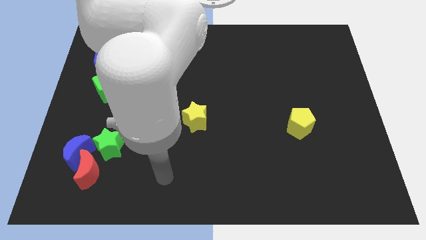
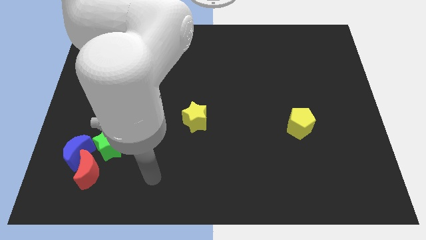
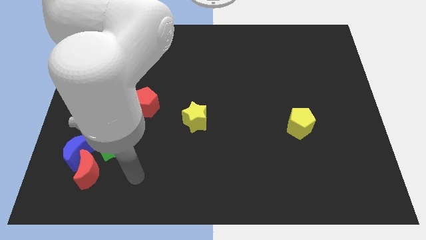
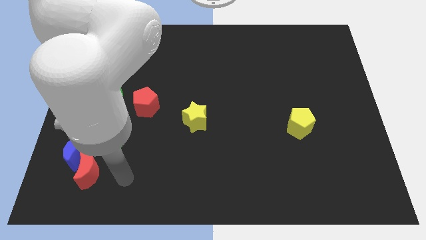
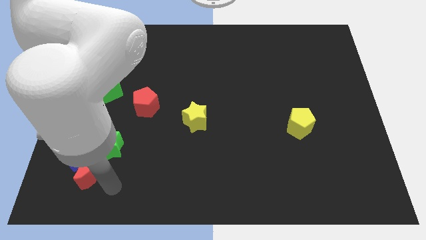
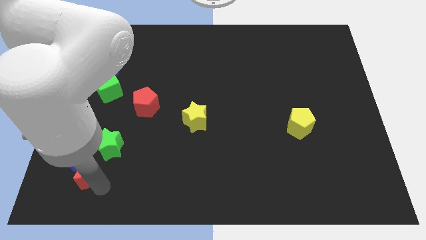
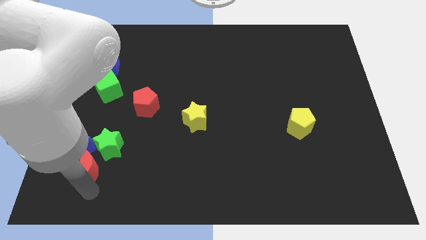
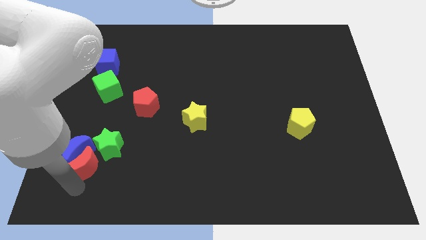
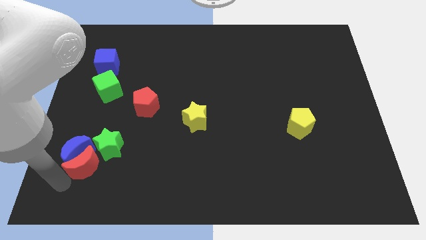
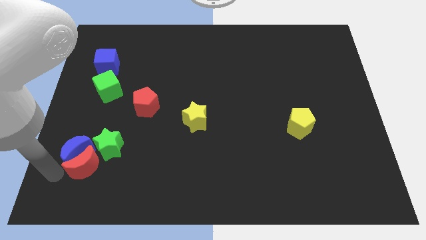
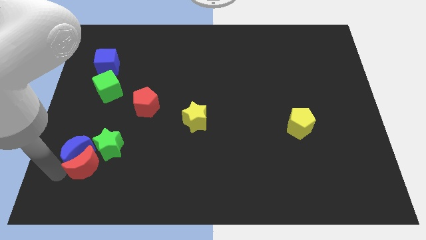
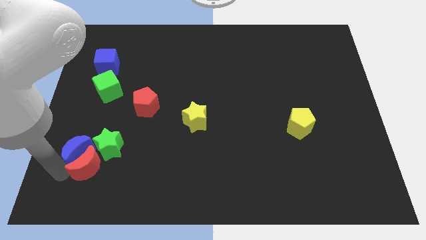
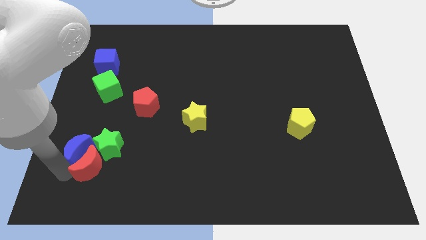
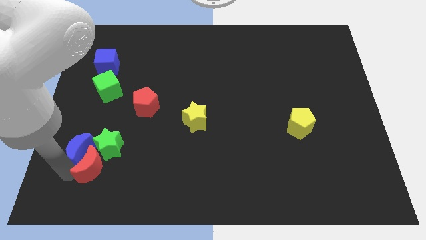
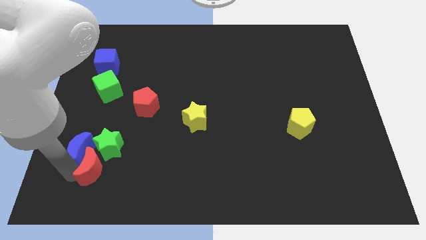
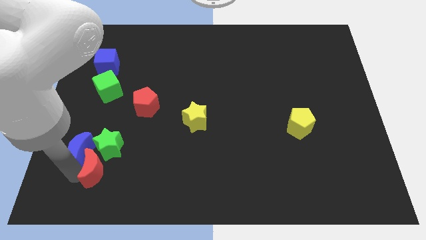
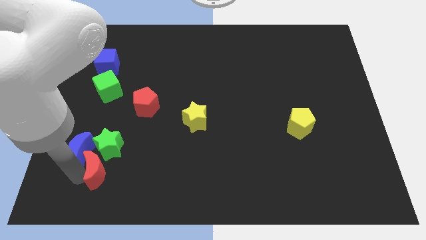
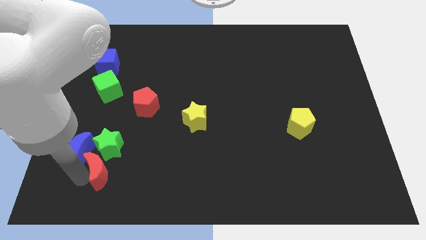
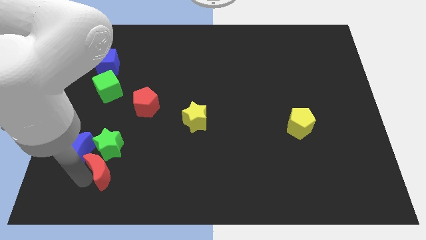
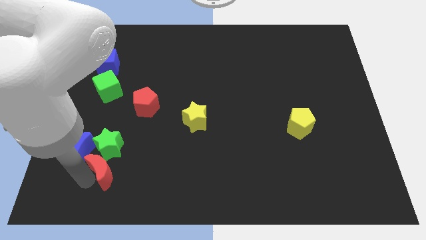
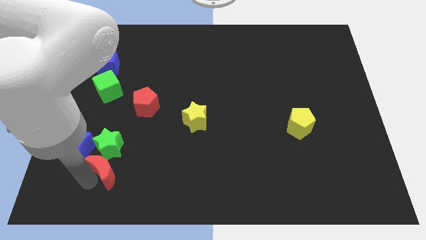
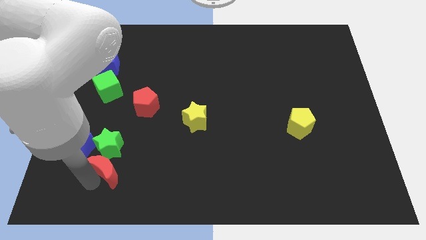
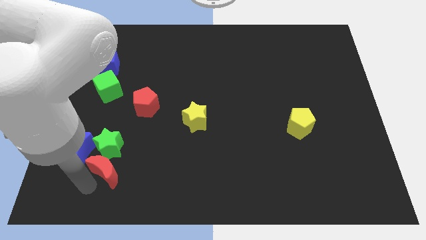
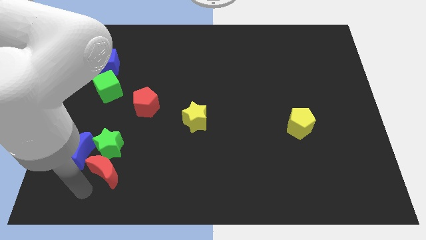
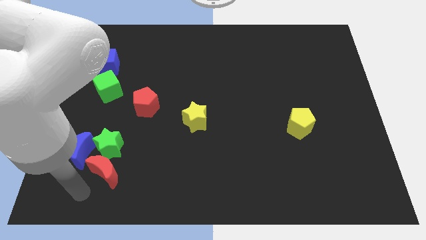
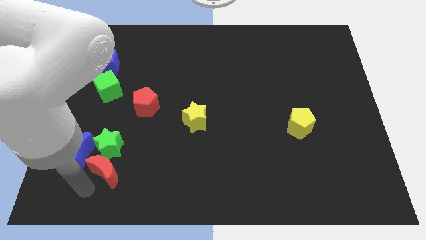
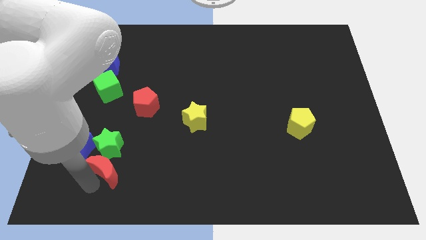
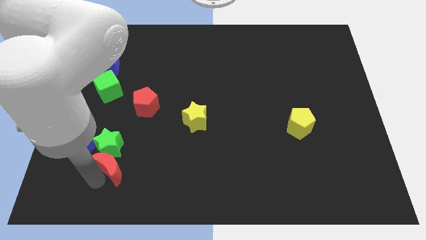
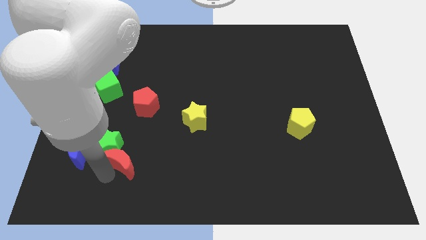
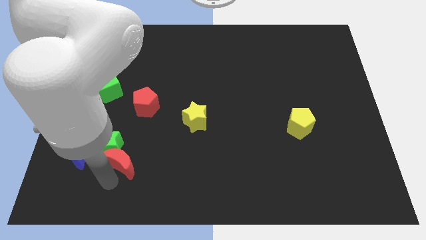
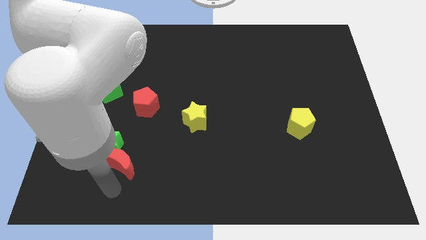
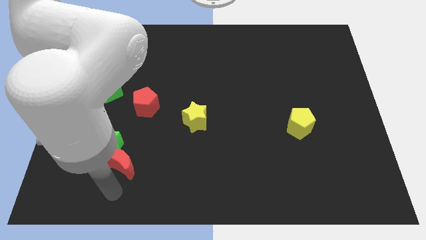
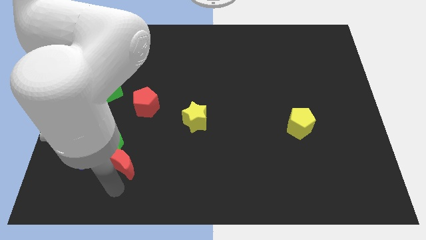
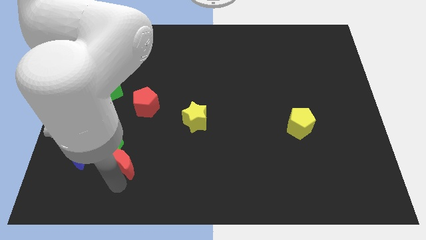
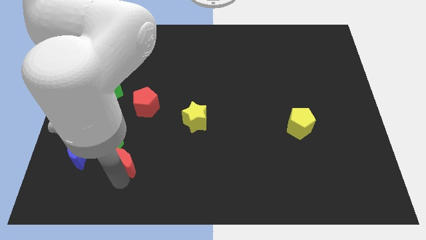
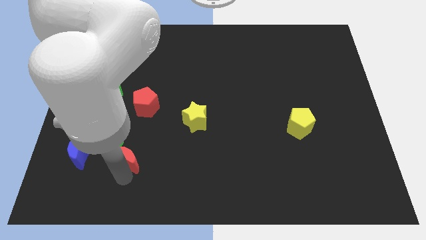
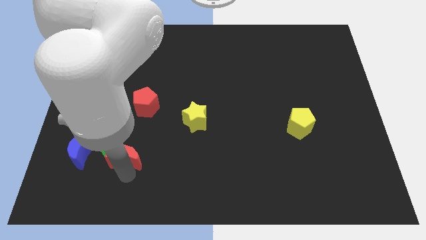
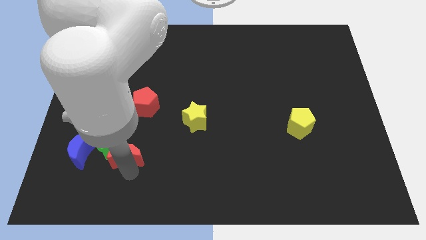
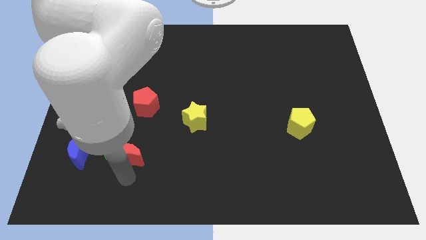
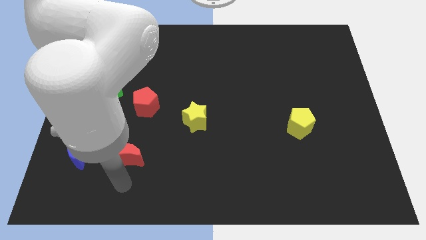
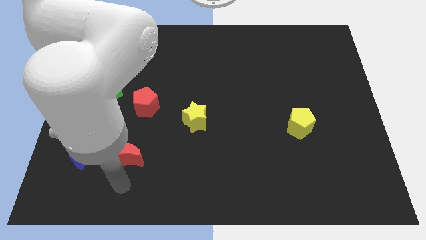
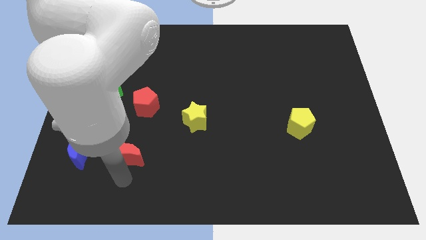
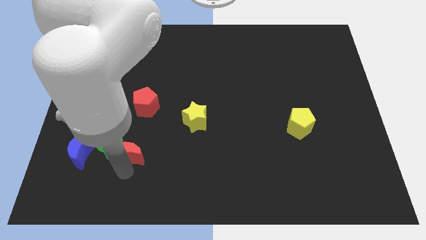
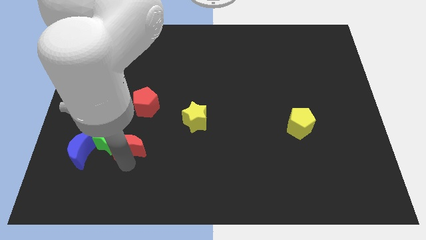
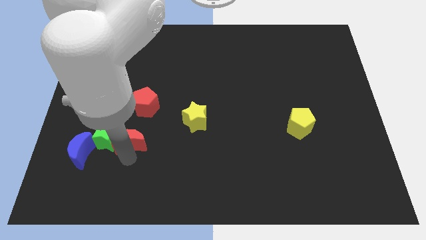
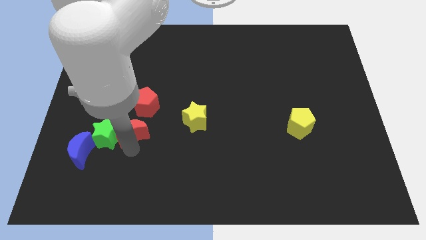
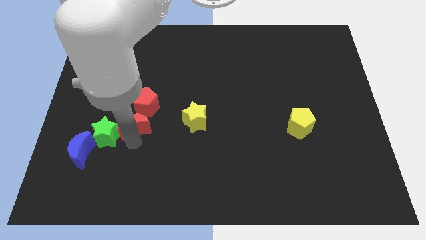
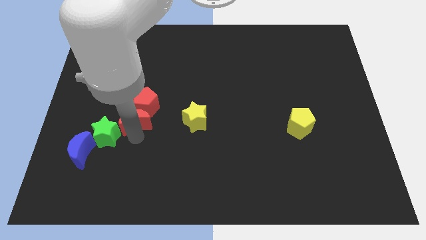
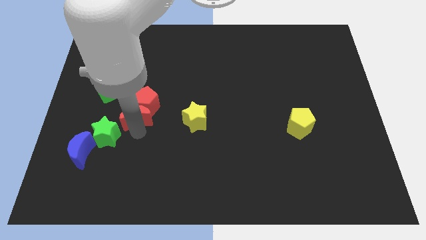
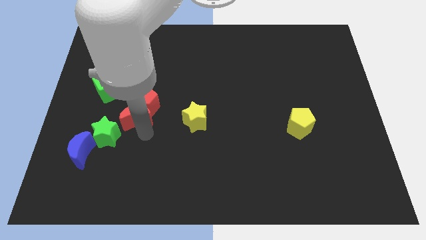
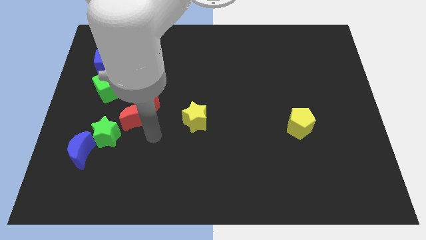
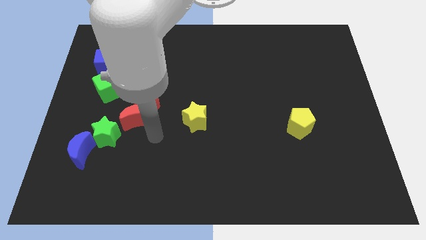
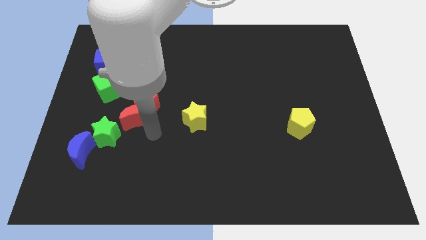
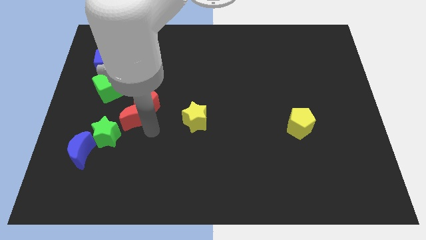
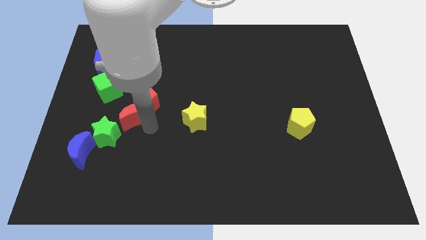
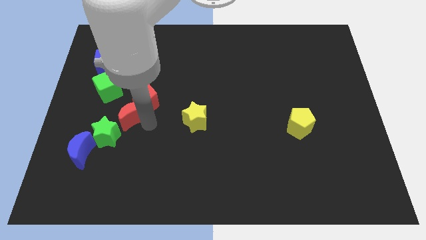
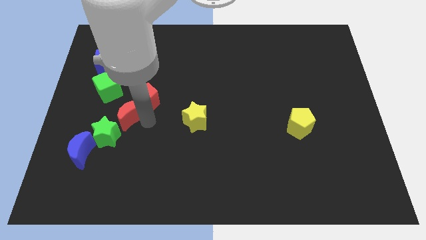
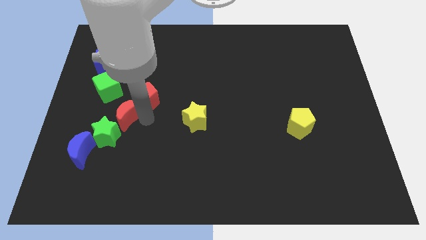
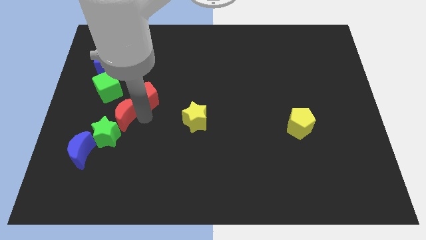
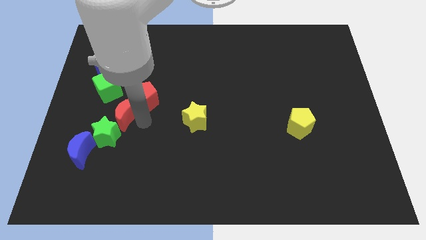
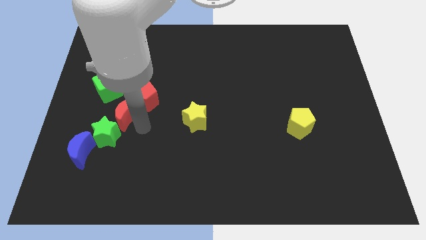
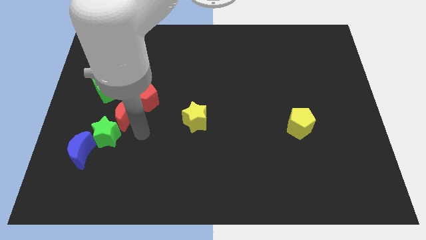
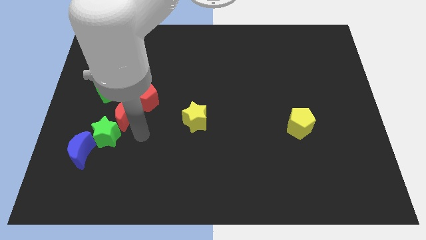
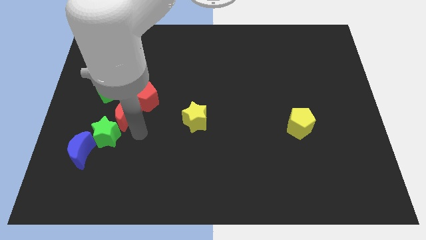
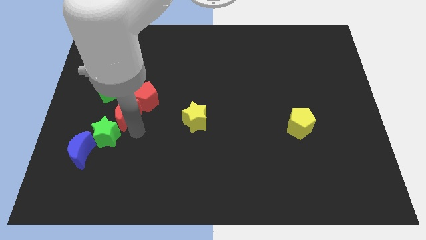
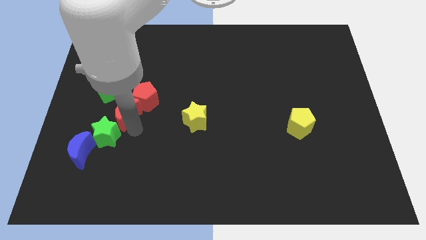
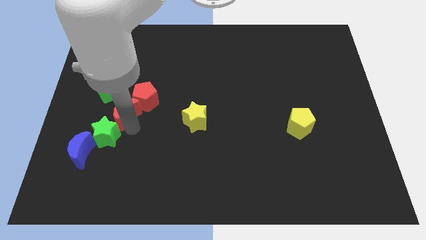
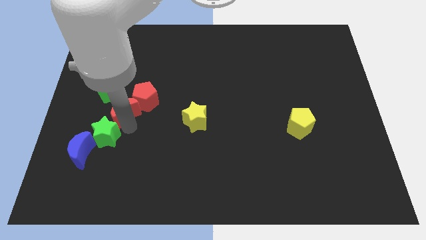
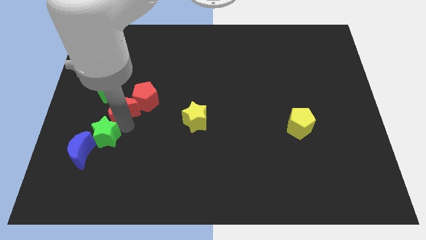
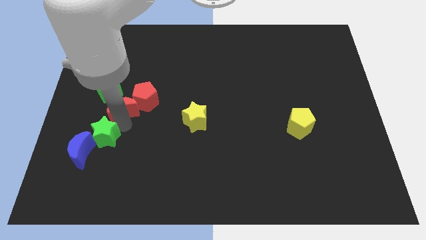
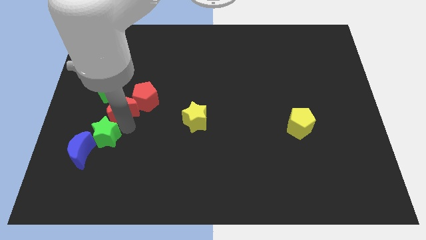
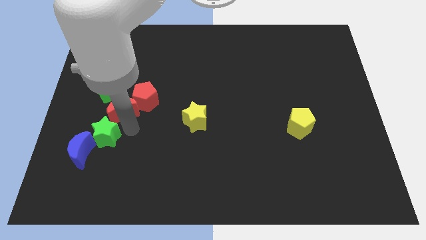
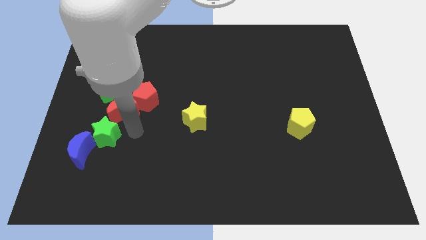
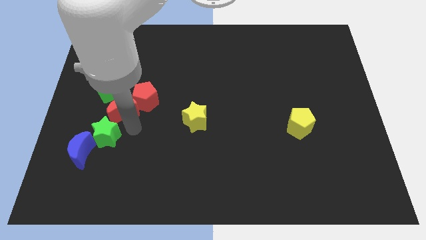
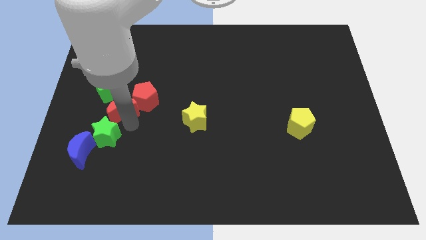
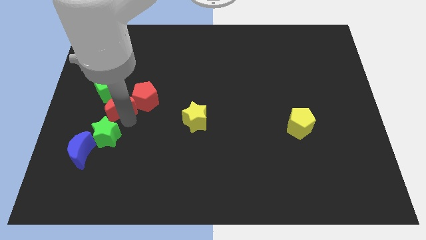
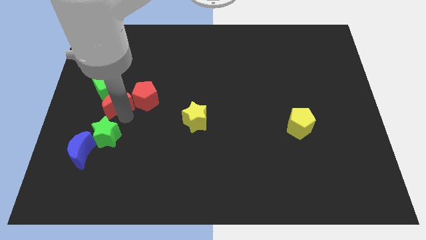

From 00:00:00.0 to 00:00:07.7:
push the red moon towards the green cube
